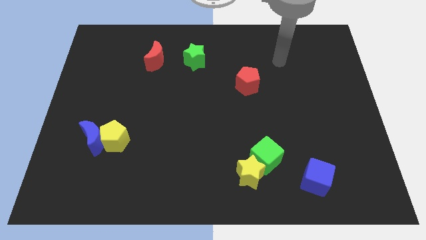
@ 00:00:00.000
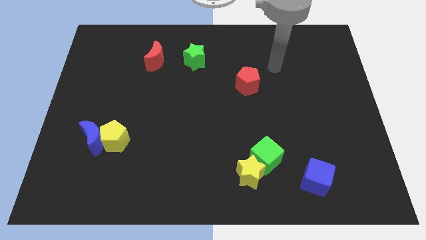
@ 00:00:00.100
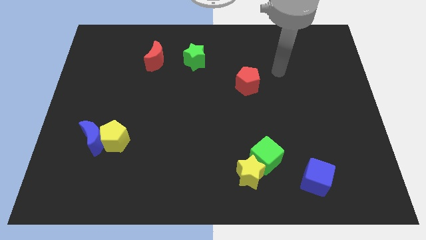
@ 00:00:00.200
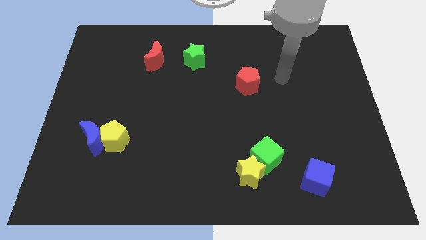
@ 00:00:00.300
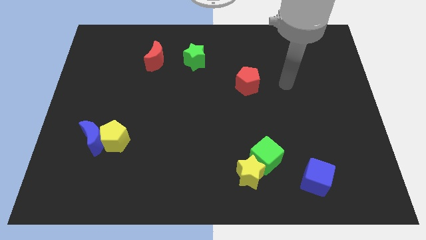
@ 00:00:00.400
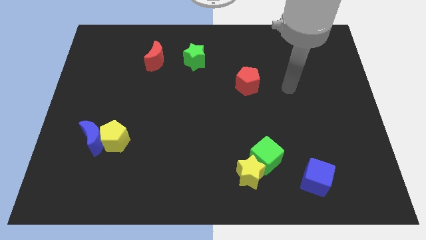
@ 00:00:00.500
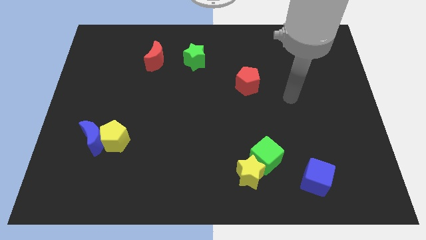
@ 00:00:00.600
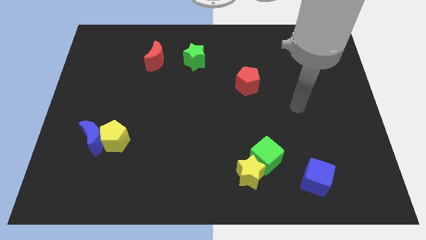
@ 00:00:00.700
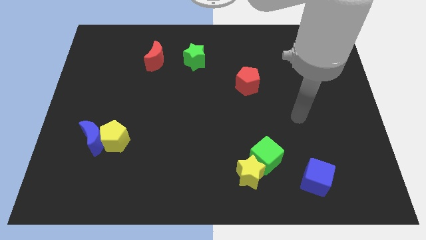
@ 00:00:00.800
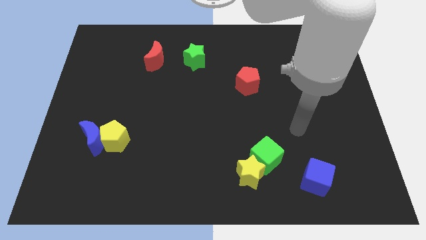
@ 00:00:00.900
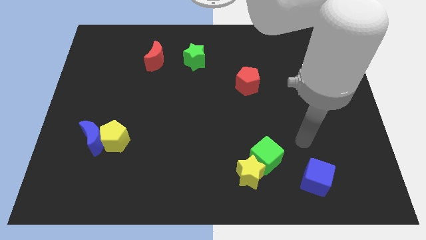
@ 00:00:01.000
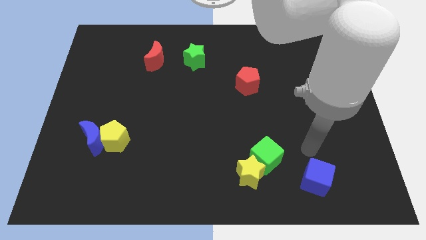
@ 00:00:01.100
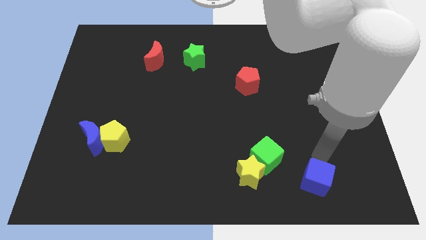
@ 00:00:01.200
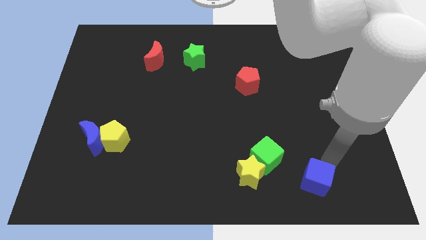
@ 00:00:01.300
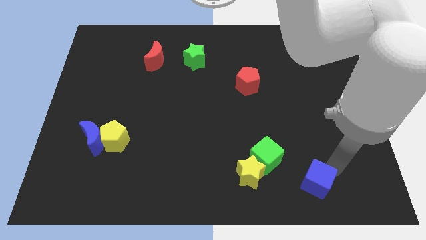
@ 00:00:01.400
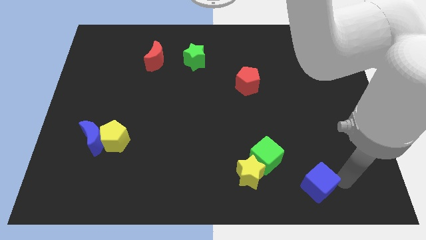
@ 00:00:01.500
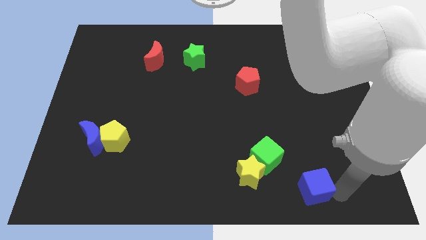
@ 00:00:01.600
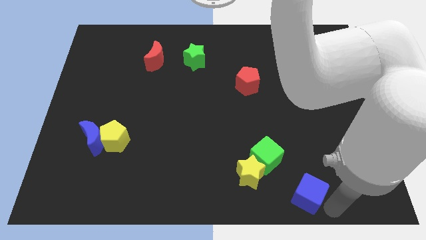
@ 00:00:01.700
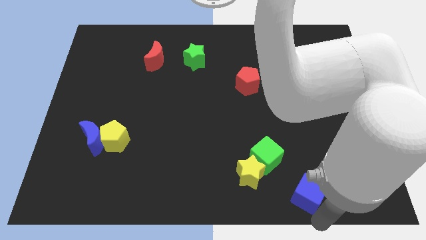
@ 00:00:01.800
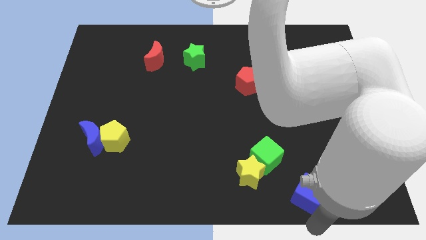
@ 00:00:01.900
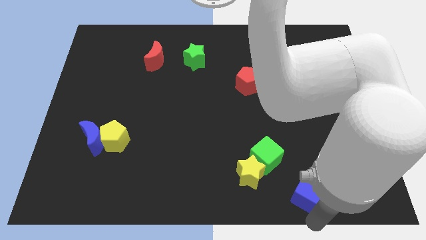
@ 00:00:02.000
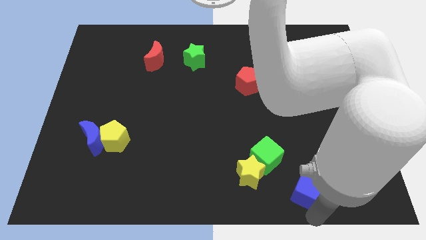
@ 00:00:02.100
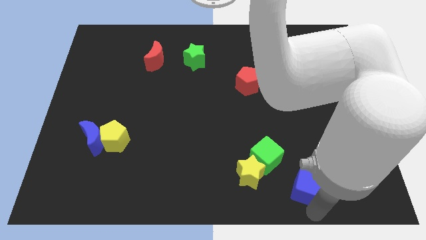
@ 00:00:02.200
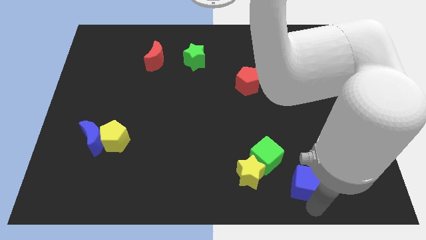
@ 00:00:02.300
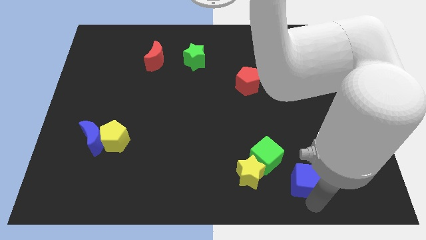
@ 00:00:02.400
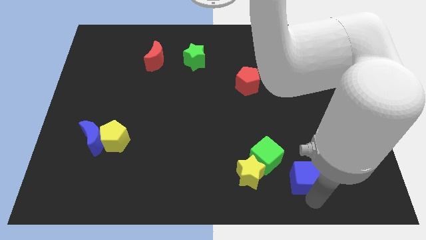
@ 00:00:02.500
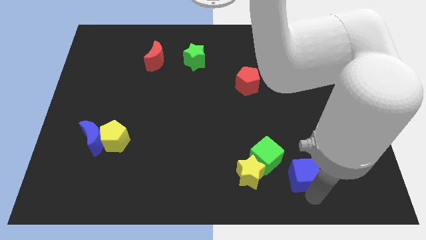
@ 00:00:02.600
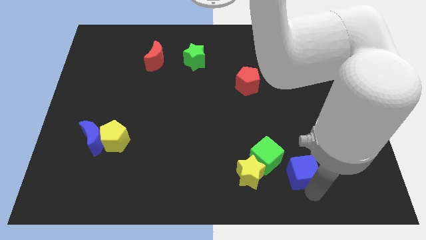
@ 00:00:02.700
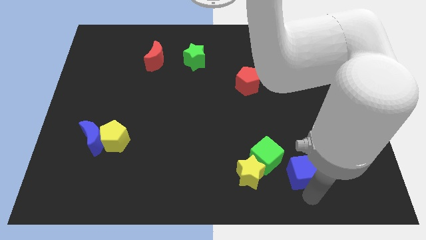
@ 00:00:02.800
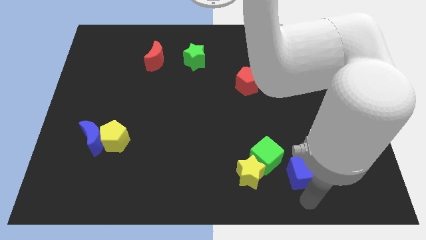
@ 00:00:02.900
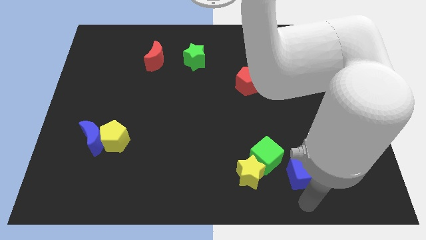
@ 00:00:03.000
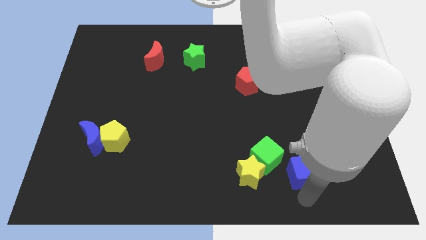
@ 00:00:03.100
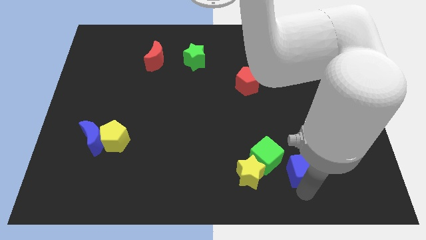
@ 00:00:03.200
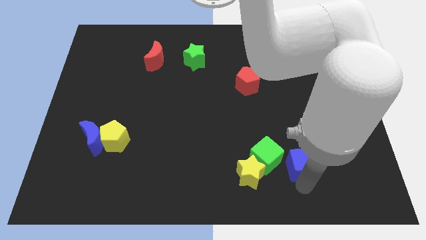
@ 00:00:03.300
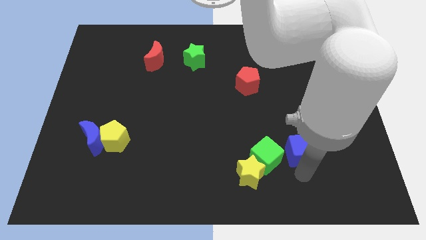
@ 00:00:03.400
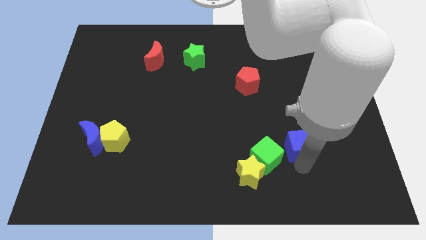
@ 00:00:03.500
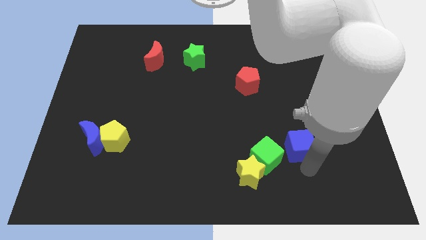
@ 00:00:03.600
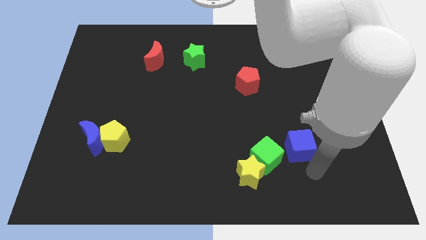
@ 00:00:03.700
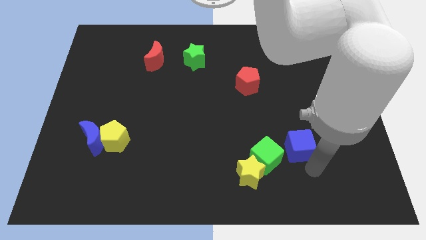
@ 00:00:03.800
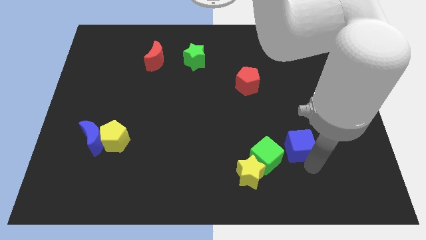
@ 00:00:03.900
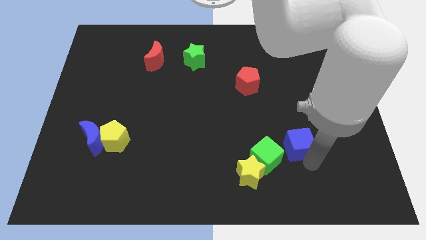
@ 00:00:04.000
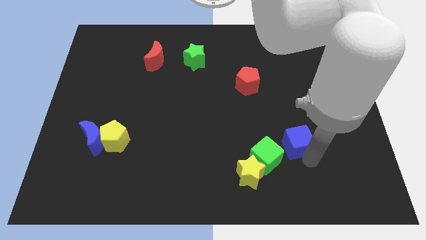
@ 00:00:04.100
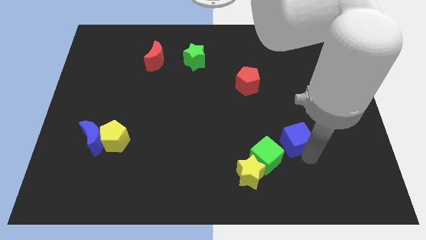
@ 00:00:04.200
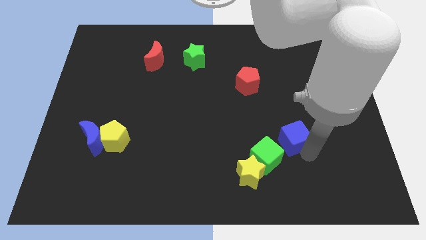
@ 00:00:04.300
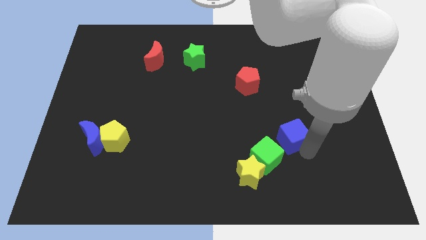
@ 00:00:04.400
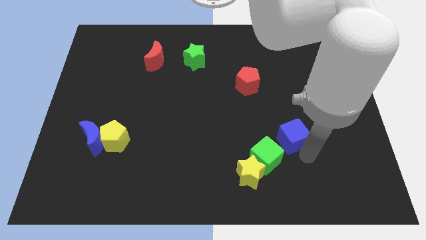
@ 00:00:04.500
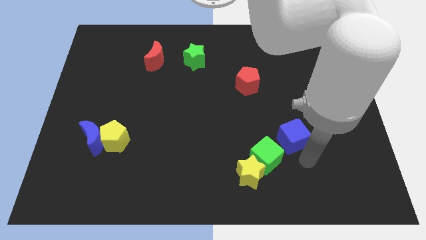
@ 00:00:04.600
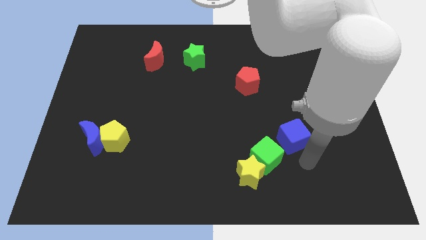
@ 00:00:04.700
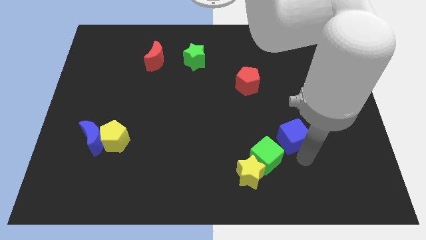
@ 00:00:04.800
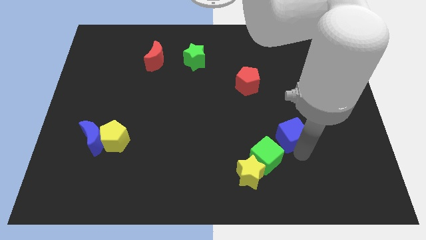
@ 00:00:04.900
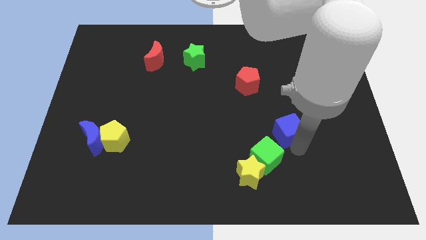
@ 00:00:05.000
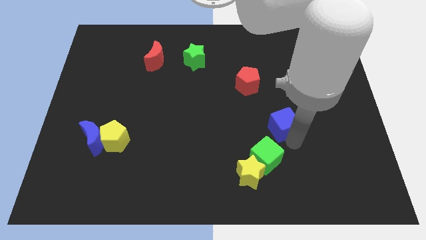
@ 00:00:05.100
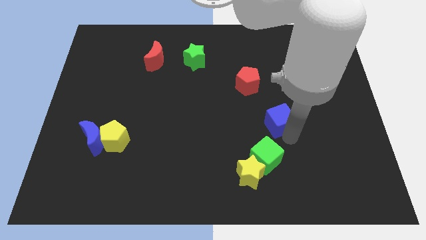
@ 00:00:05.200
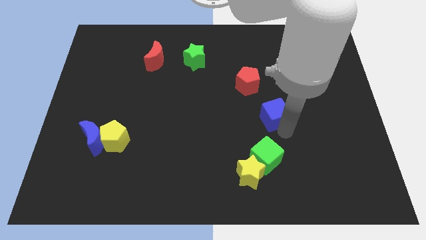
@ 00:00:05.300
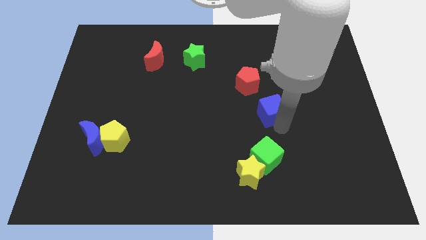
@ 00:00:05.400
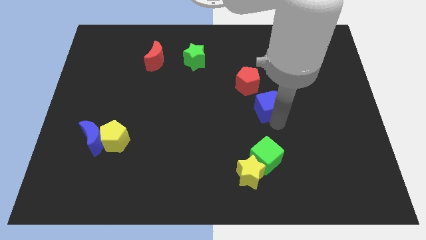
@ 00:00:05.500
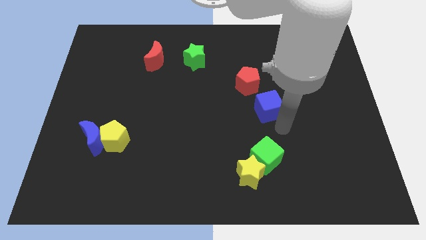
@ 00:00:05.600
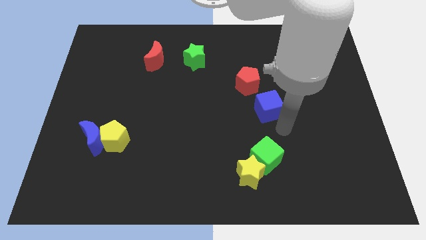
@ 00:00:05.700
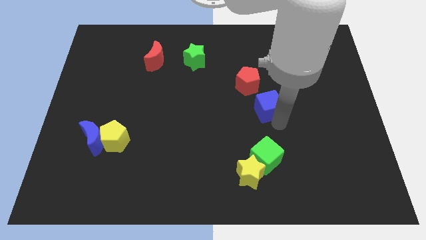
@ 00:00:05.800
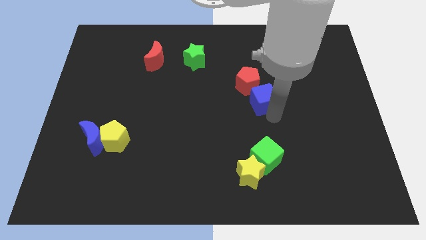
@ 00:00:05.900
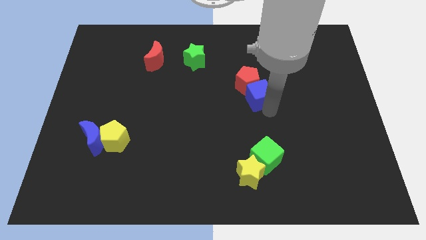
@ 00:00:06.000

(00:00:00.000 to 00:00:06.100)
put the blue cube to the red pentagon

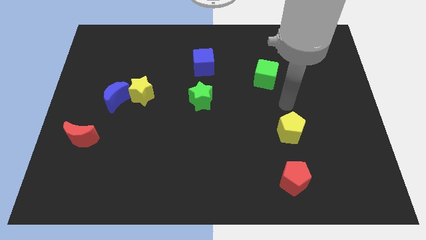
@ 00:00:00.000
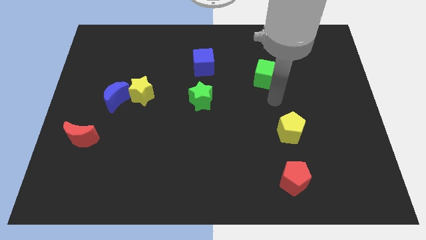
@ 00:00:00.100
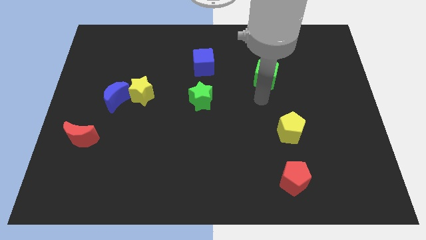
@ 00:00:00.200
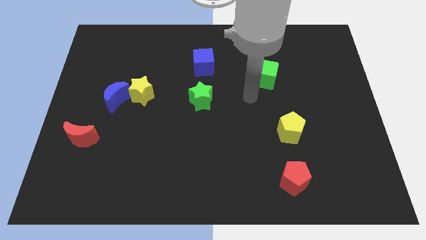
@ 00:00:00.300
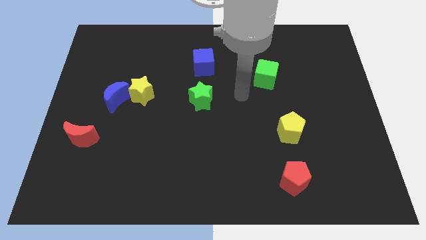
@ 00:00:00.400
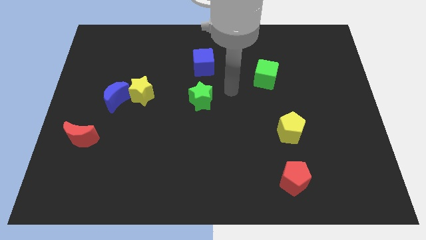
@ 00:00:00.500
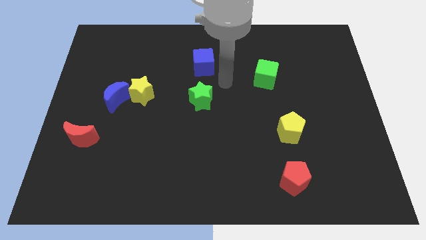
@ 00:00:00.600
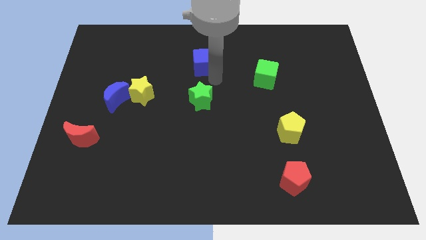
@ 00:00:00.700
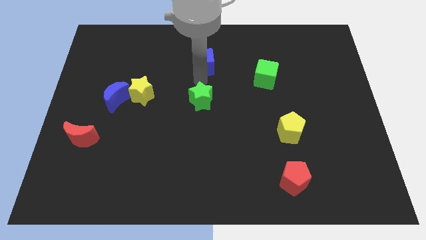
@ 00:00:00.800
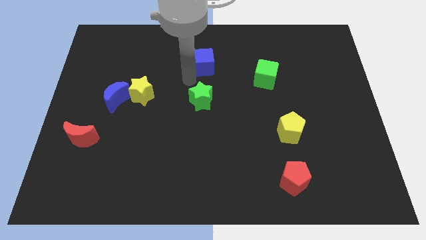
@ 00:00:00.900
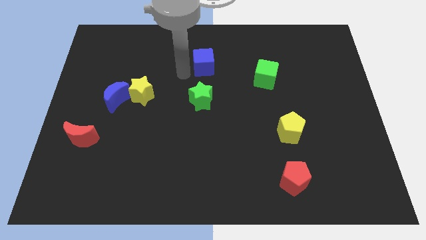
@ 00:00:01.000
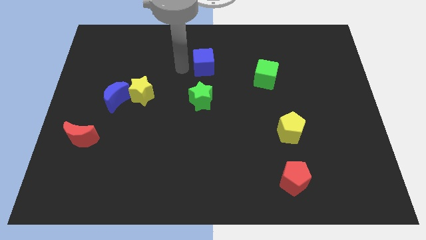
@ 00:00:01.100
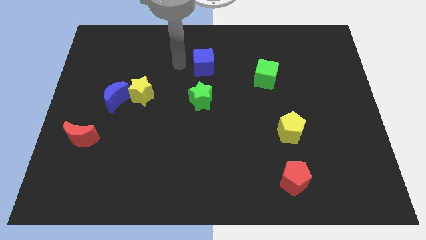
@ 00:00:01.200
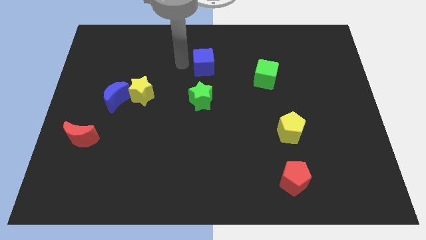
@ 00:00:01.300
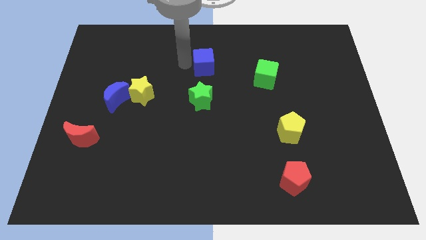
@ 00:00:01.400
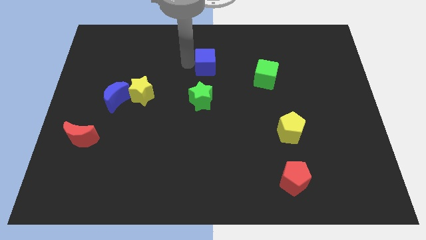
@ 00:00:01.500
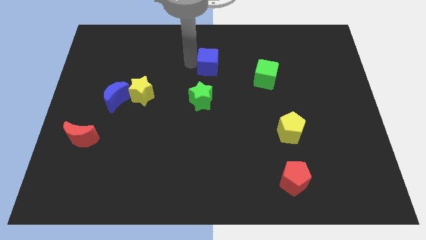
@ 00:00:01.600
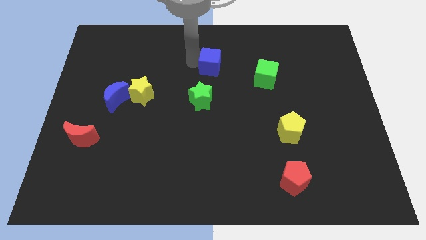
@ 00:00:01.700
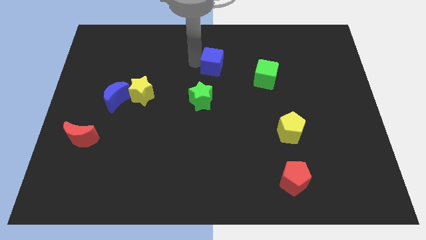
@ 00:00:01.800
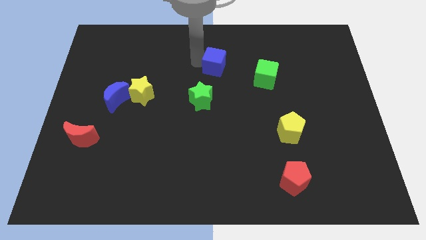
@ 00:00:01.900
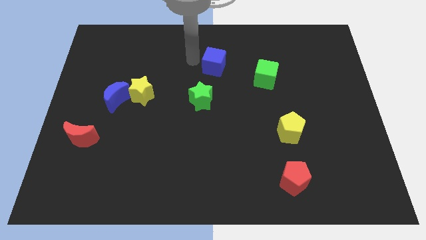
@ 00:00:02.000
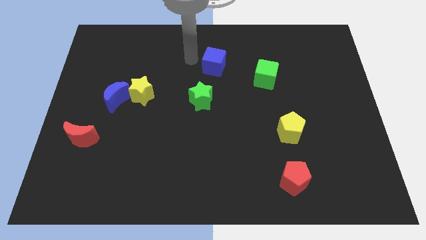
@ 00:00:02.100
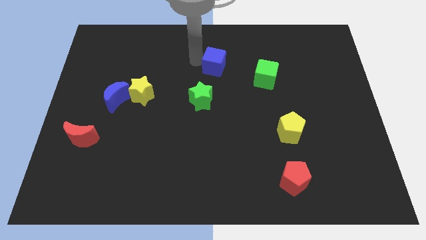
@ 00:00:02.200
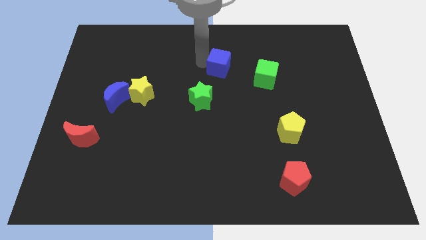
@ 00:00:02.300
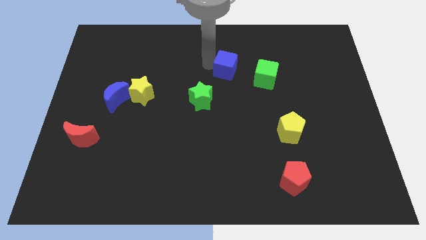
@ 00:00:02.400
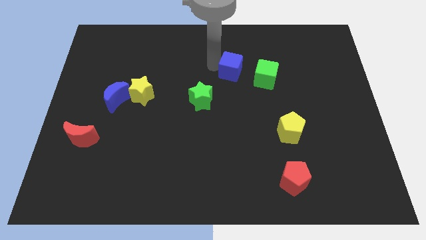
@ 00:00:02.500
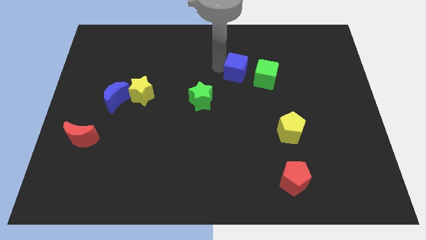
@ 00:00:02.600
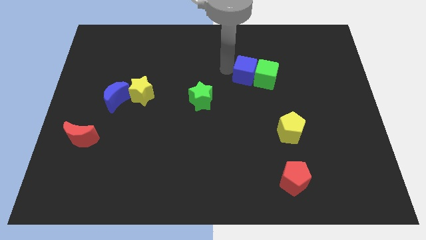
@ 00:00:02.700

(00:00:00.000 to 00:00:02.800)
push the blue cube towards the green cube
